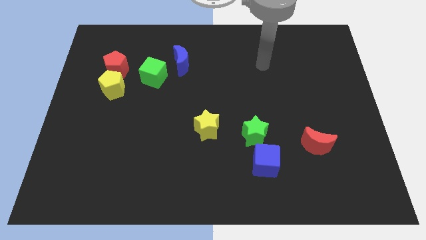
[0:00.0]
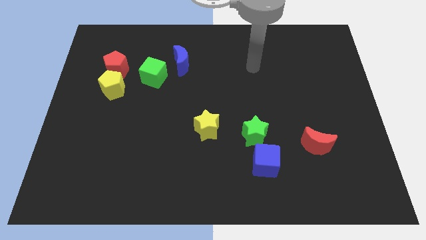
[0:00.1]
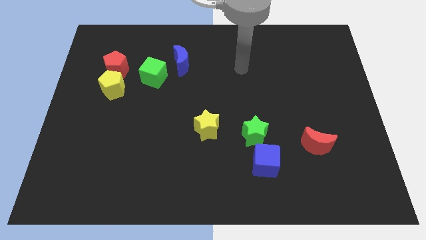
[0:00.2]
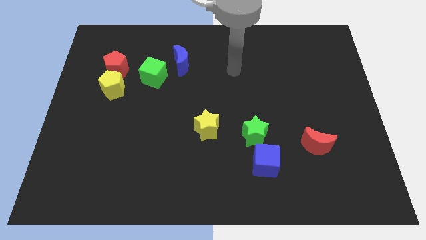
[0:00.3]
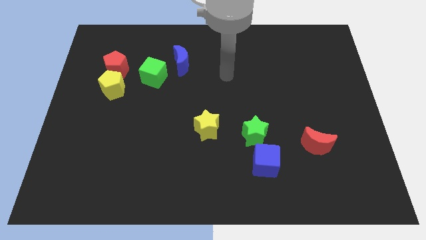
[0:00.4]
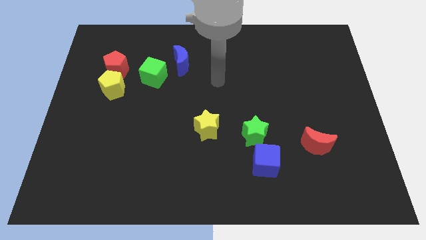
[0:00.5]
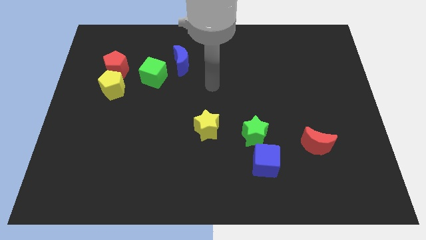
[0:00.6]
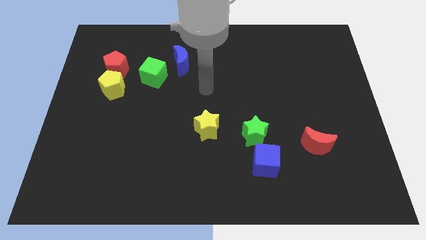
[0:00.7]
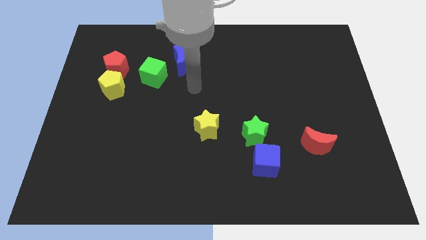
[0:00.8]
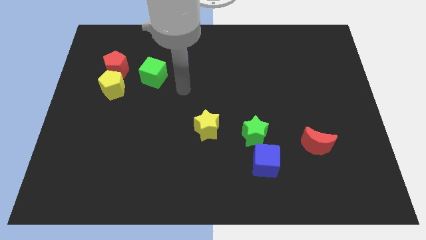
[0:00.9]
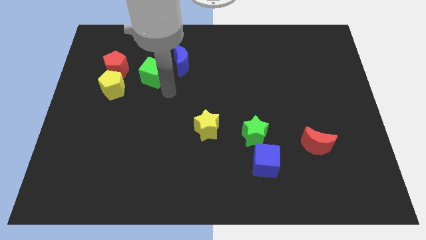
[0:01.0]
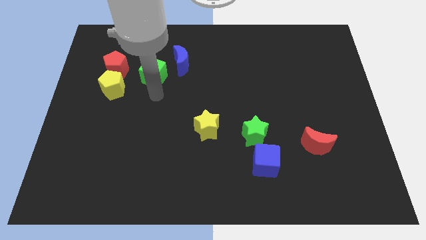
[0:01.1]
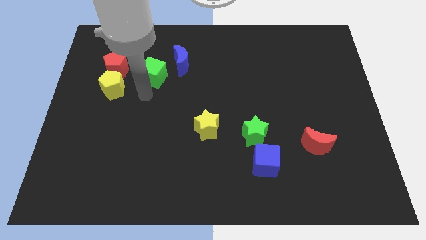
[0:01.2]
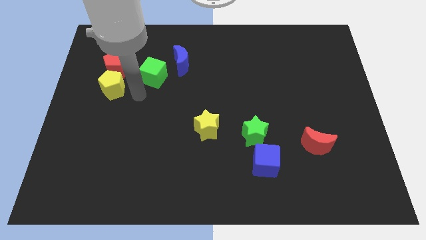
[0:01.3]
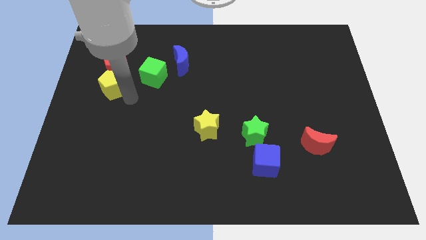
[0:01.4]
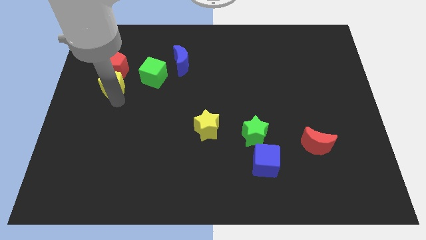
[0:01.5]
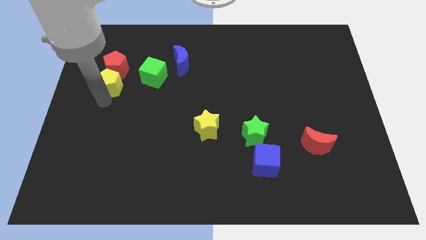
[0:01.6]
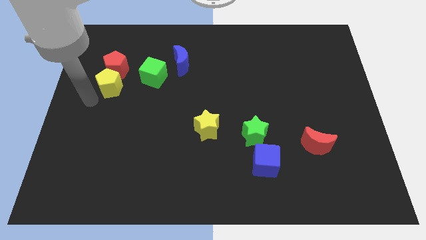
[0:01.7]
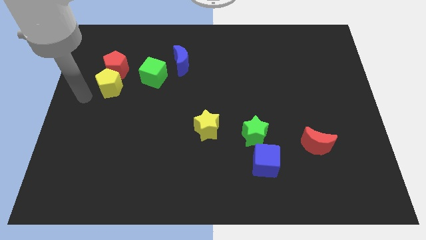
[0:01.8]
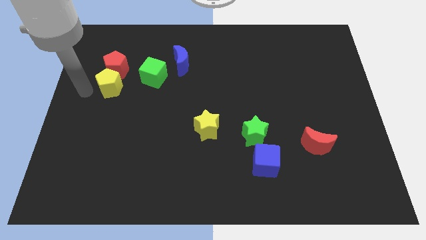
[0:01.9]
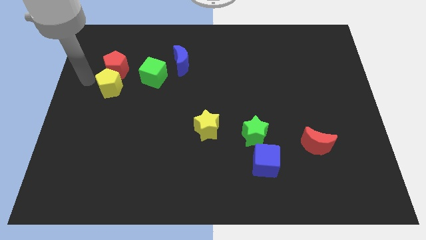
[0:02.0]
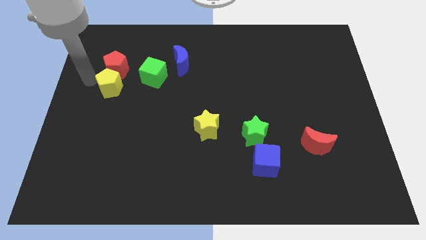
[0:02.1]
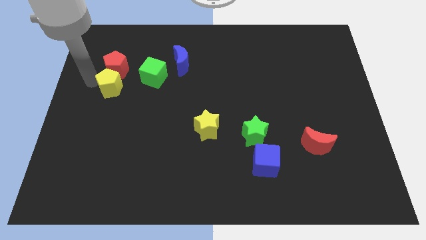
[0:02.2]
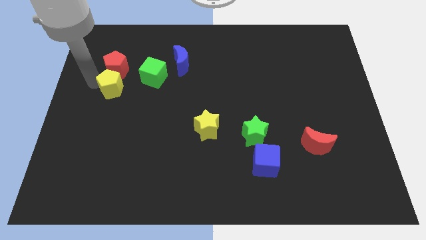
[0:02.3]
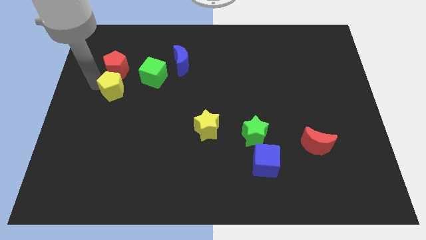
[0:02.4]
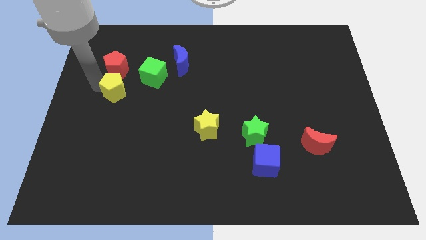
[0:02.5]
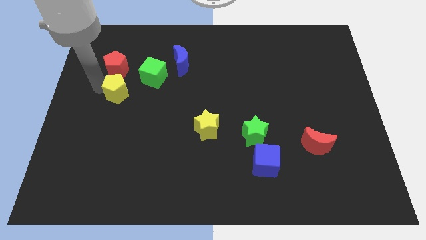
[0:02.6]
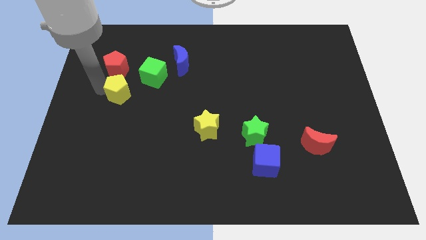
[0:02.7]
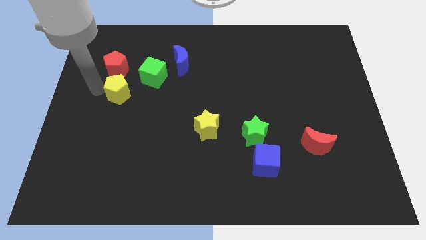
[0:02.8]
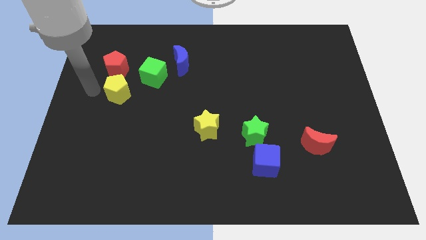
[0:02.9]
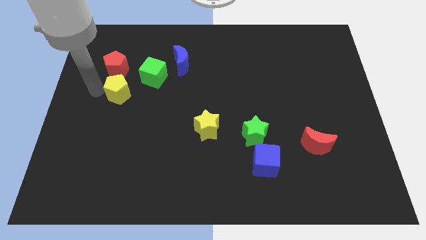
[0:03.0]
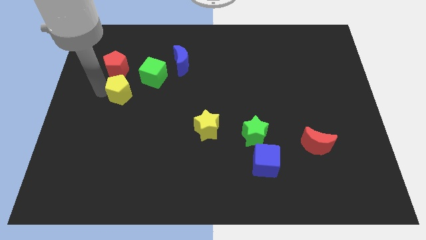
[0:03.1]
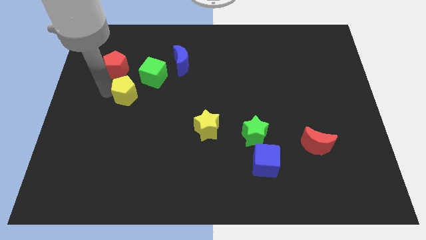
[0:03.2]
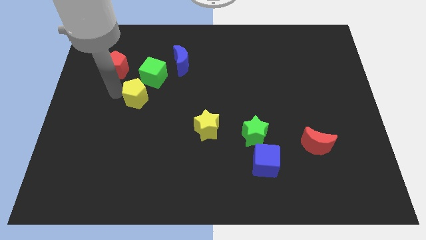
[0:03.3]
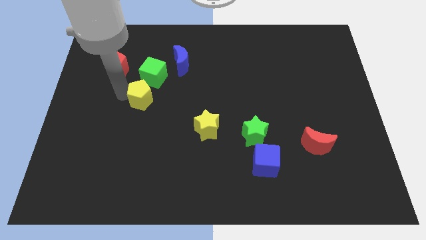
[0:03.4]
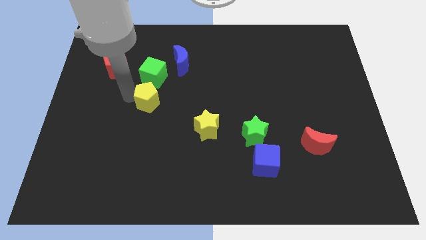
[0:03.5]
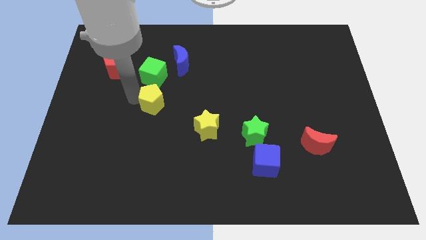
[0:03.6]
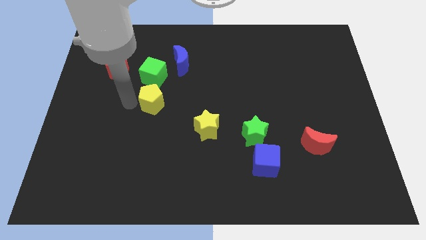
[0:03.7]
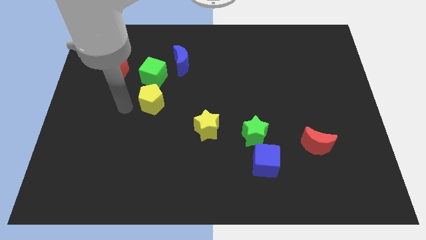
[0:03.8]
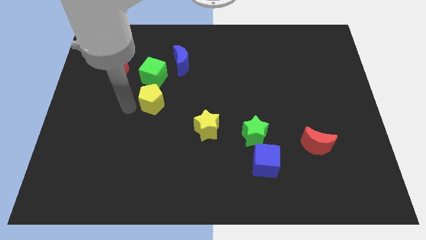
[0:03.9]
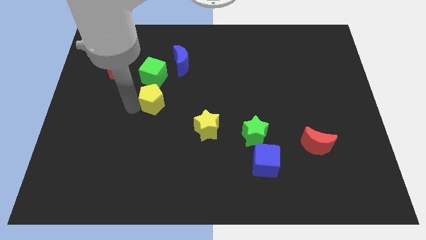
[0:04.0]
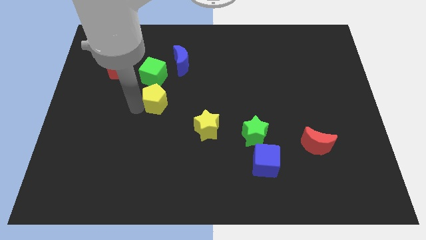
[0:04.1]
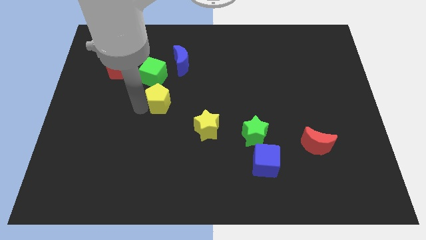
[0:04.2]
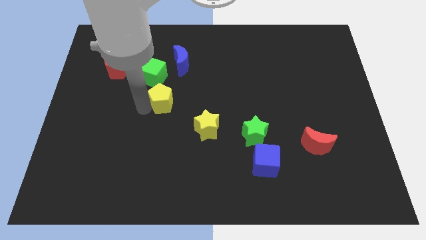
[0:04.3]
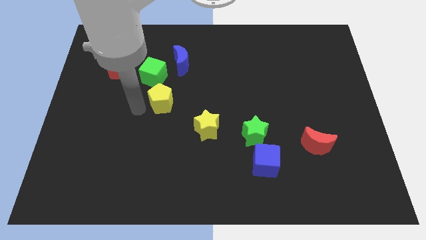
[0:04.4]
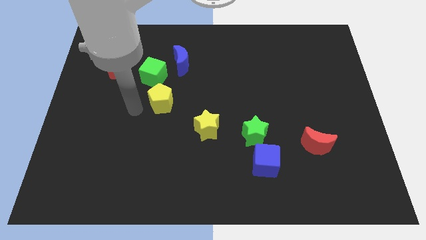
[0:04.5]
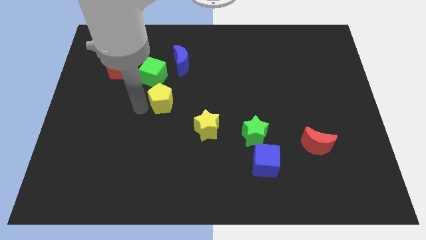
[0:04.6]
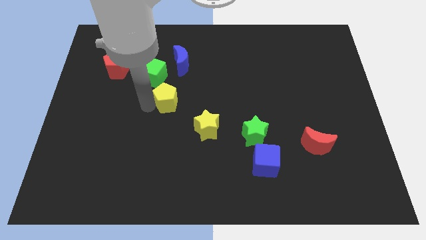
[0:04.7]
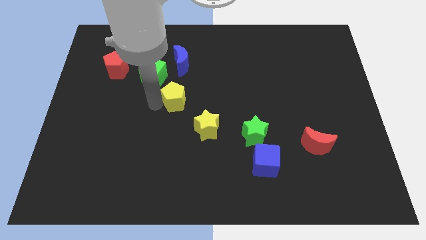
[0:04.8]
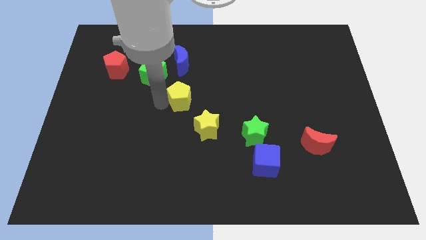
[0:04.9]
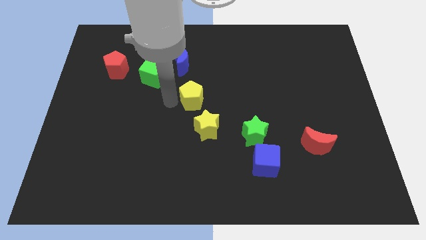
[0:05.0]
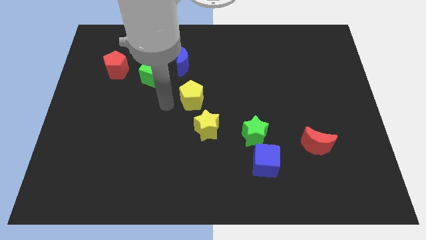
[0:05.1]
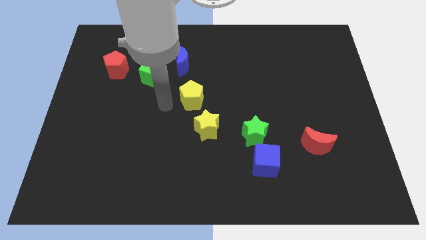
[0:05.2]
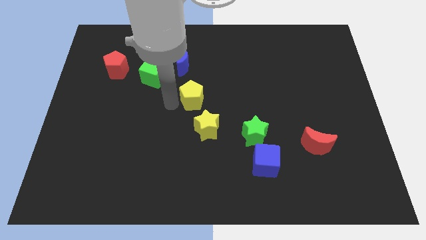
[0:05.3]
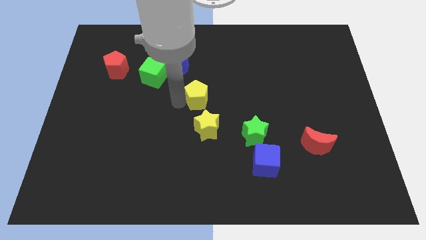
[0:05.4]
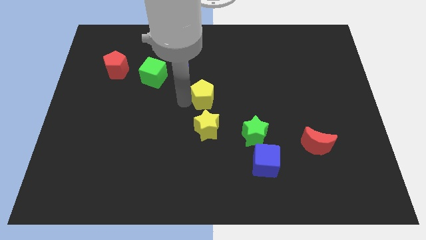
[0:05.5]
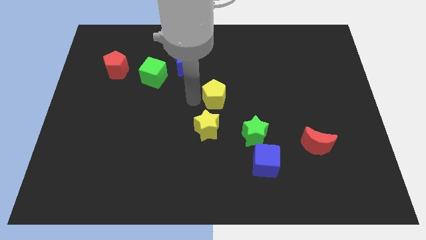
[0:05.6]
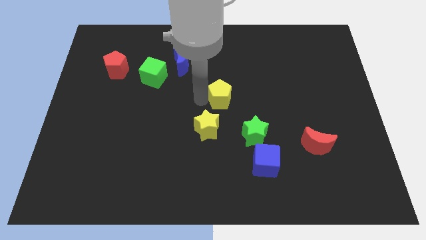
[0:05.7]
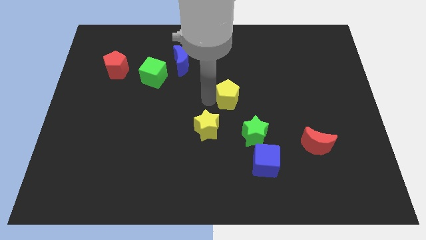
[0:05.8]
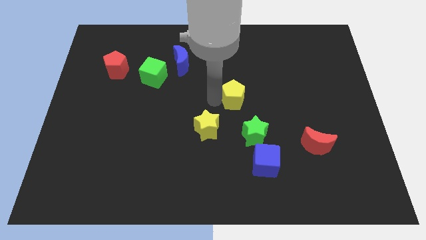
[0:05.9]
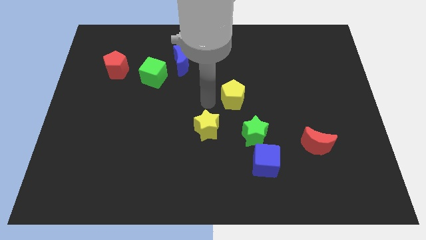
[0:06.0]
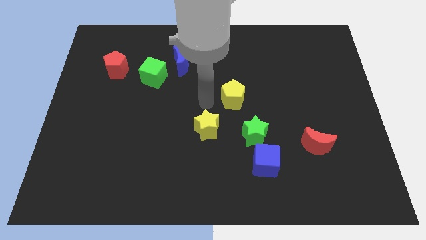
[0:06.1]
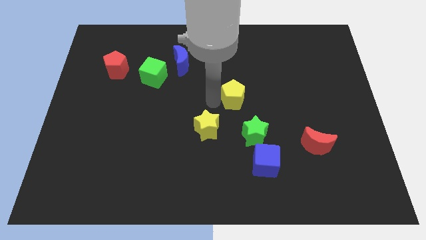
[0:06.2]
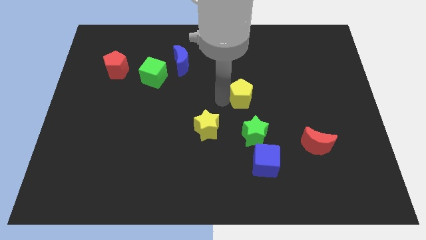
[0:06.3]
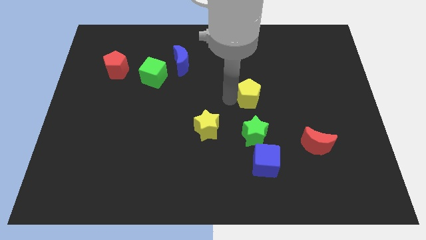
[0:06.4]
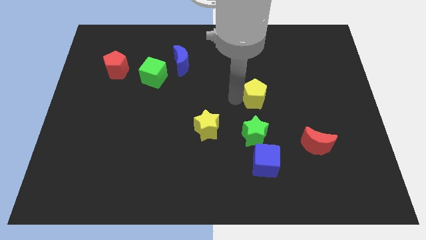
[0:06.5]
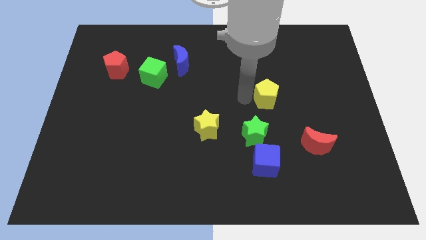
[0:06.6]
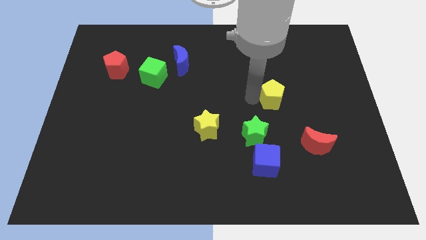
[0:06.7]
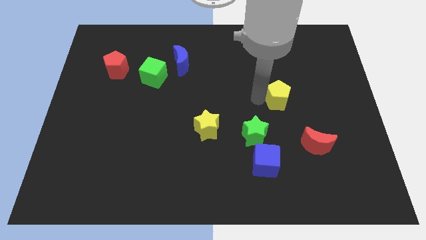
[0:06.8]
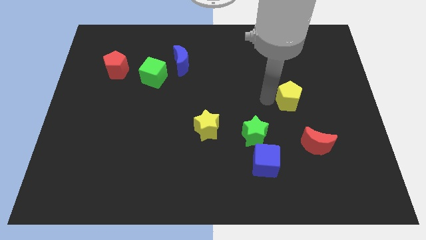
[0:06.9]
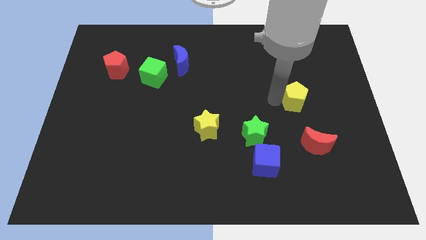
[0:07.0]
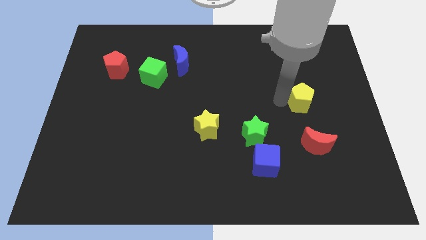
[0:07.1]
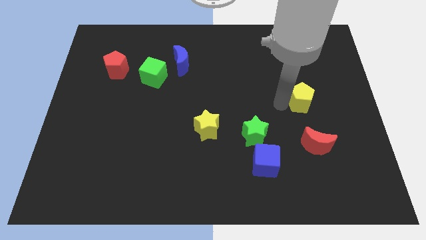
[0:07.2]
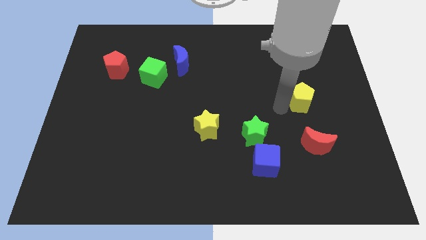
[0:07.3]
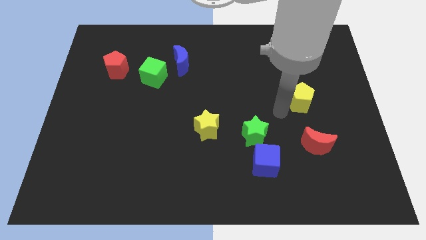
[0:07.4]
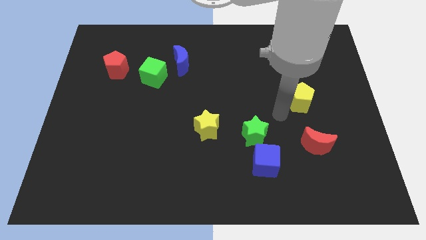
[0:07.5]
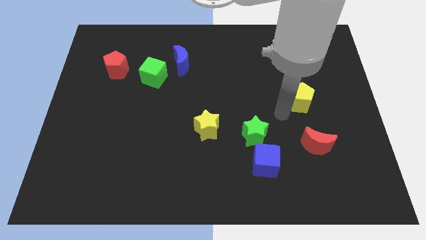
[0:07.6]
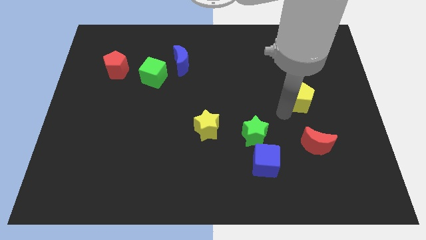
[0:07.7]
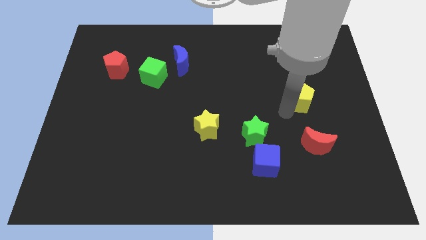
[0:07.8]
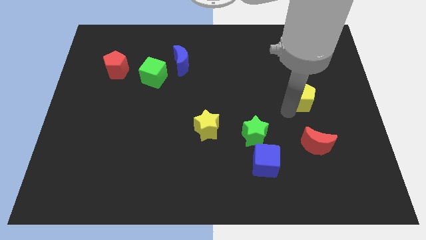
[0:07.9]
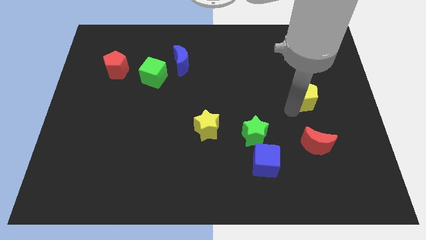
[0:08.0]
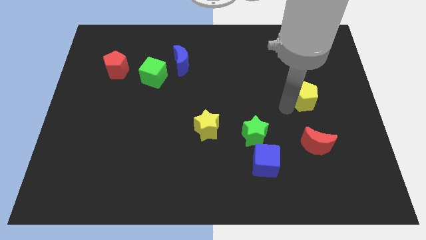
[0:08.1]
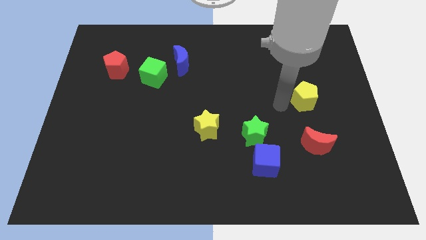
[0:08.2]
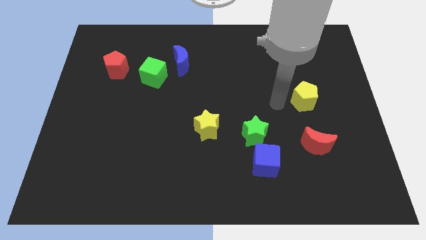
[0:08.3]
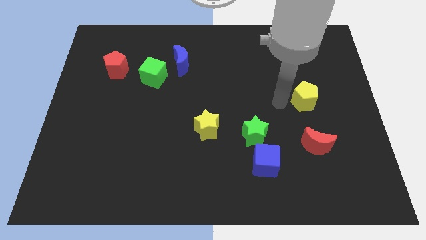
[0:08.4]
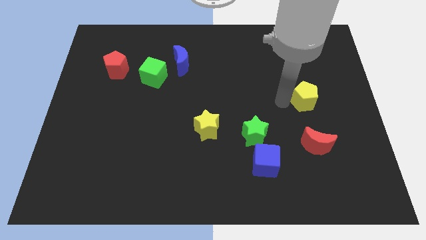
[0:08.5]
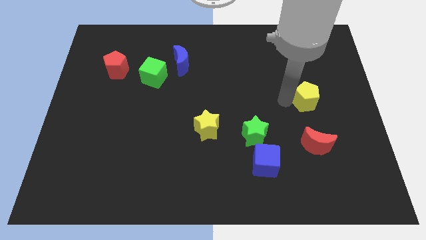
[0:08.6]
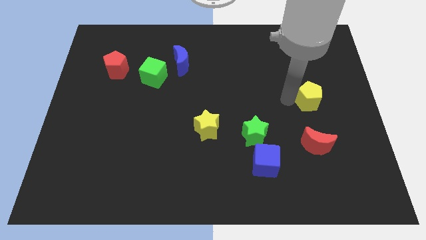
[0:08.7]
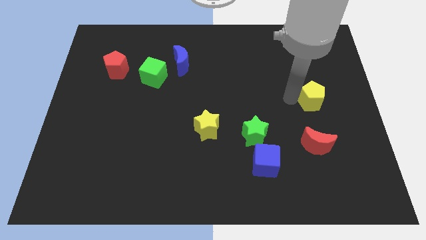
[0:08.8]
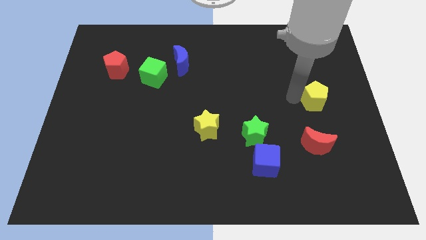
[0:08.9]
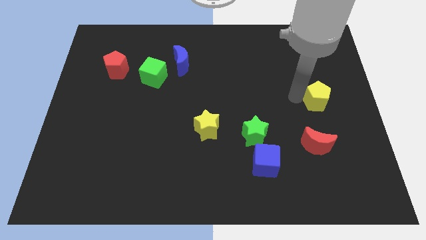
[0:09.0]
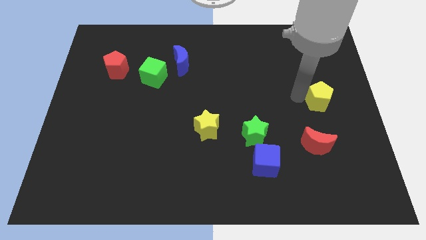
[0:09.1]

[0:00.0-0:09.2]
move the yellow pentagon to the right side of the board
